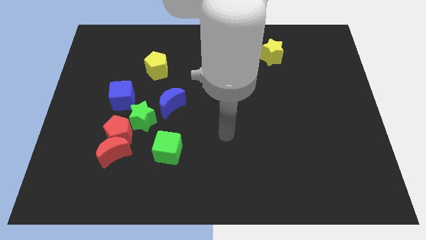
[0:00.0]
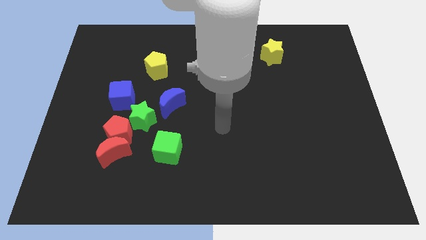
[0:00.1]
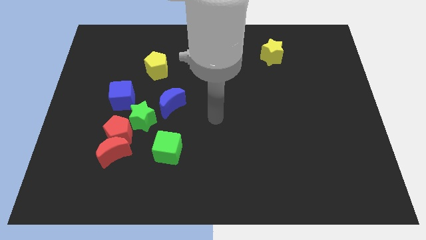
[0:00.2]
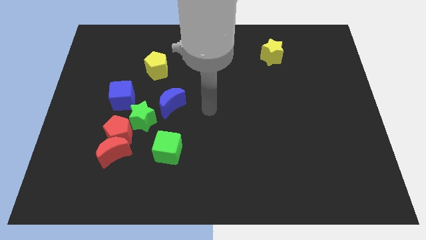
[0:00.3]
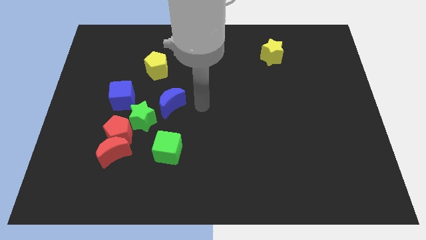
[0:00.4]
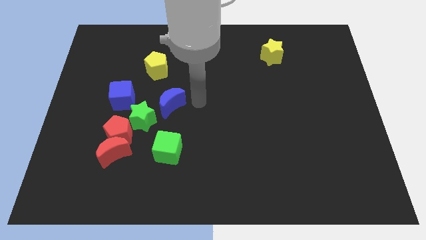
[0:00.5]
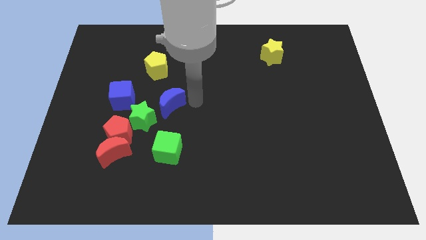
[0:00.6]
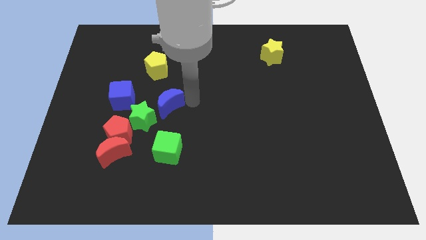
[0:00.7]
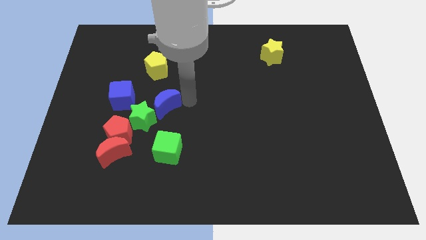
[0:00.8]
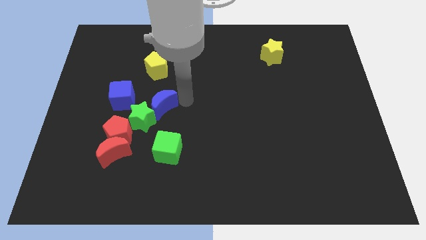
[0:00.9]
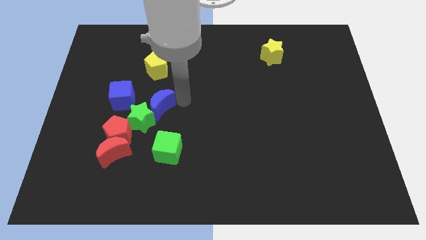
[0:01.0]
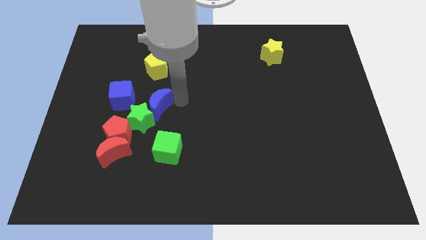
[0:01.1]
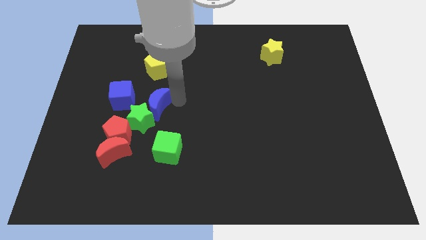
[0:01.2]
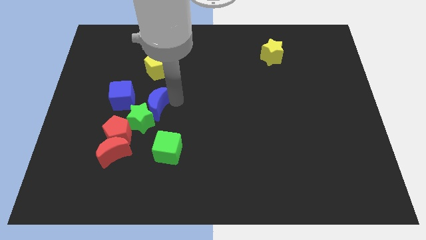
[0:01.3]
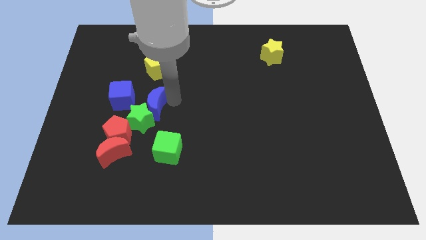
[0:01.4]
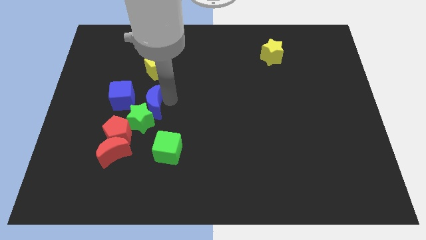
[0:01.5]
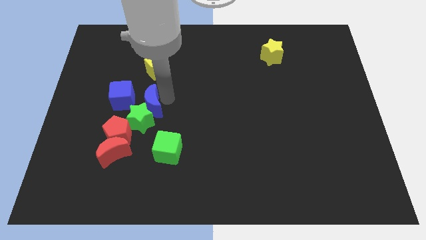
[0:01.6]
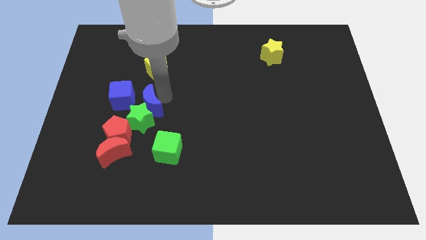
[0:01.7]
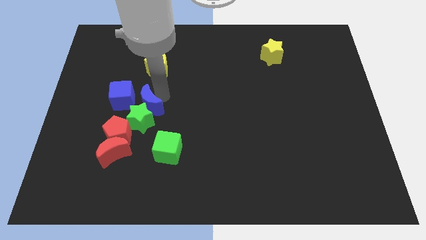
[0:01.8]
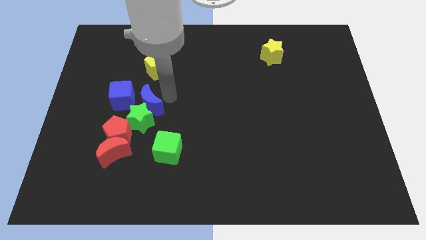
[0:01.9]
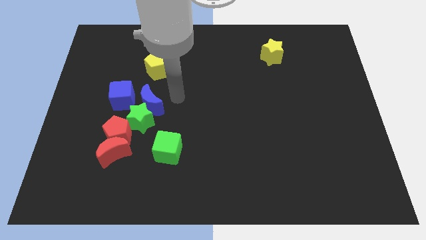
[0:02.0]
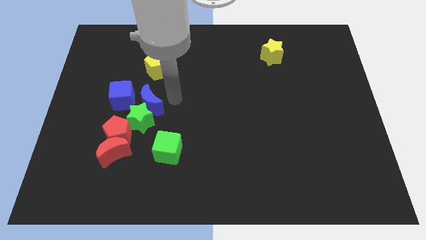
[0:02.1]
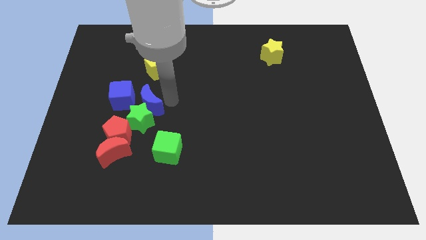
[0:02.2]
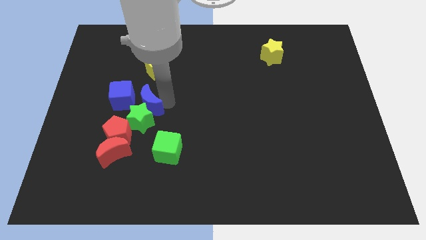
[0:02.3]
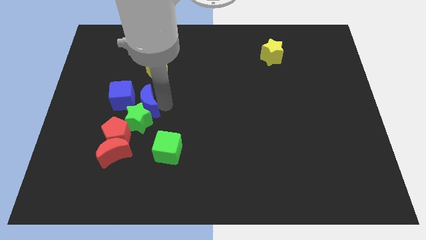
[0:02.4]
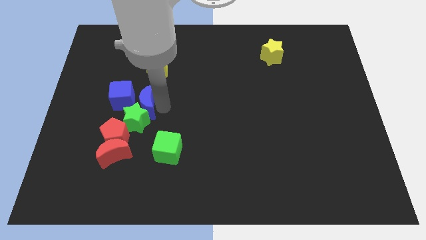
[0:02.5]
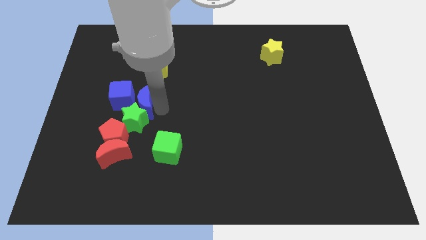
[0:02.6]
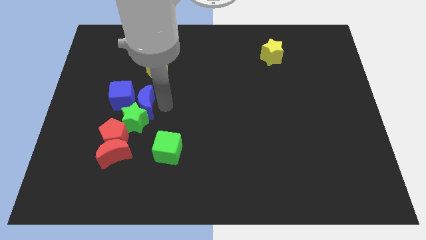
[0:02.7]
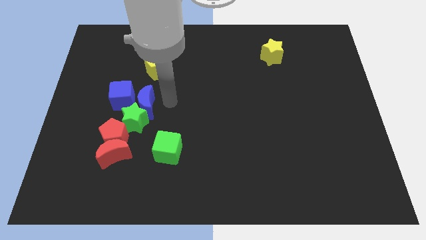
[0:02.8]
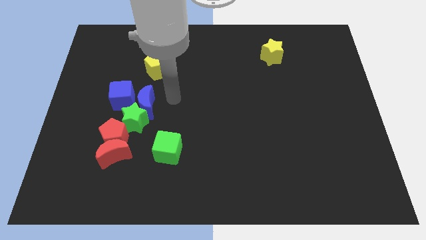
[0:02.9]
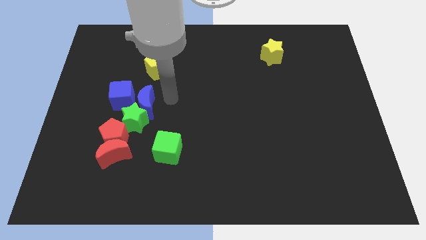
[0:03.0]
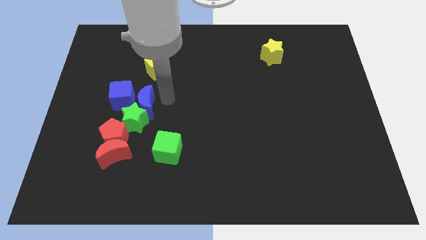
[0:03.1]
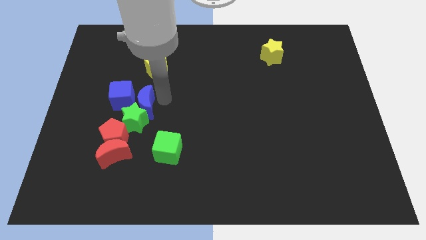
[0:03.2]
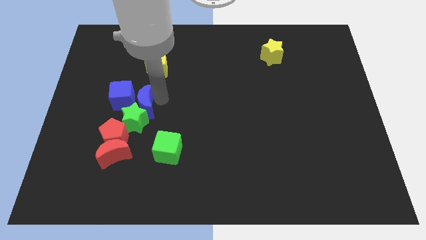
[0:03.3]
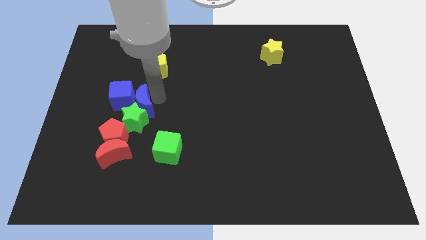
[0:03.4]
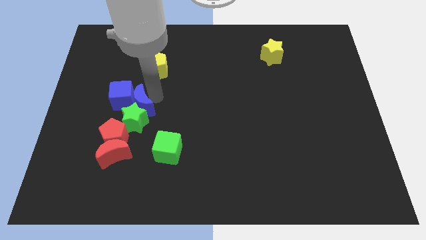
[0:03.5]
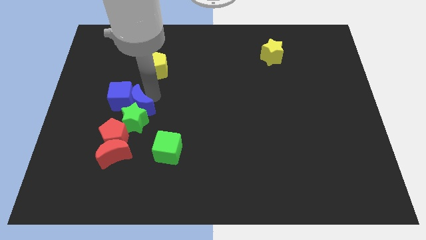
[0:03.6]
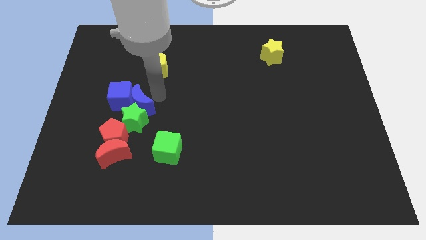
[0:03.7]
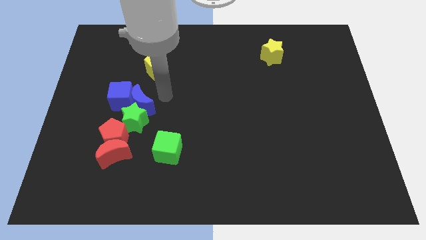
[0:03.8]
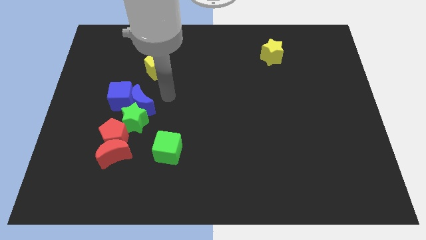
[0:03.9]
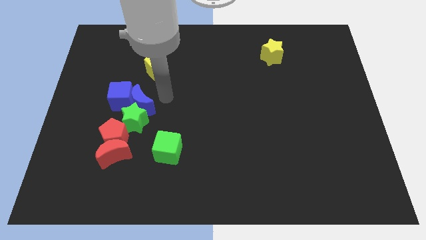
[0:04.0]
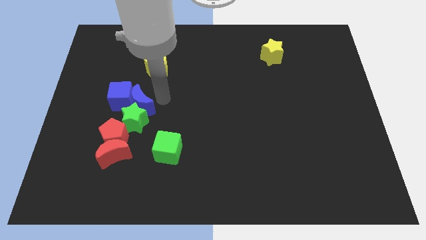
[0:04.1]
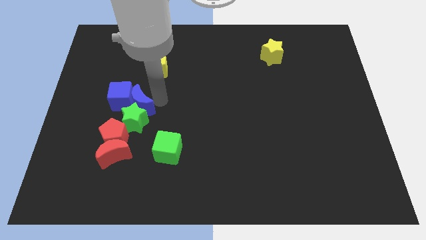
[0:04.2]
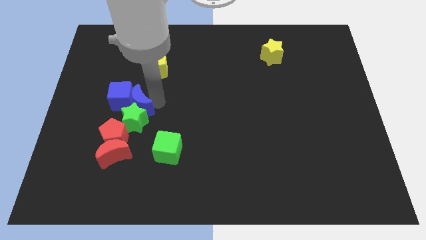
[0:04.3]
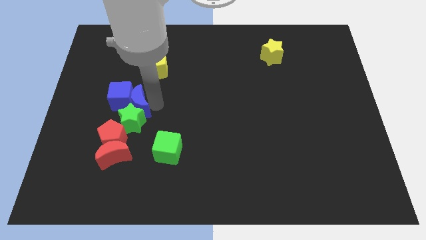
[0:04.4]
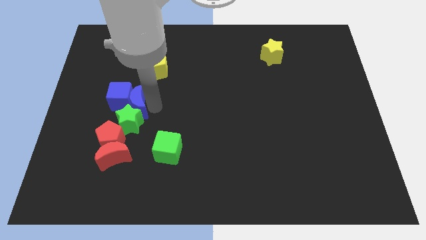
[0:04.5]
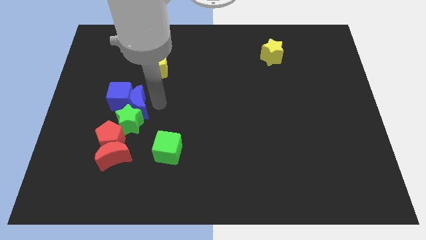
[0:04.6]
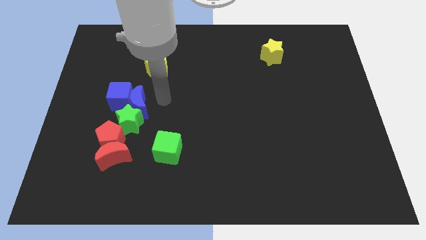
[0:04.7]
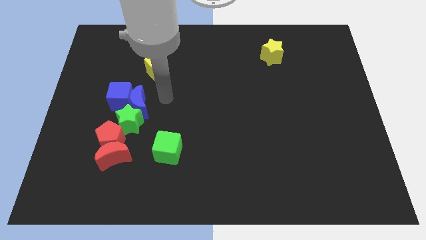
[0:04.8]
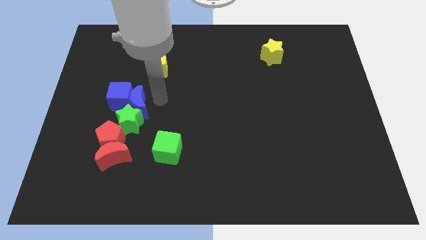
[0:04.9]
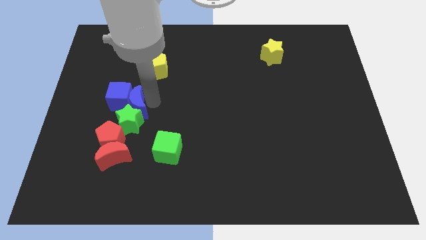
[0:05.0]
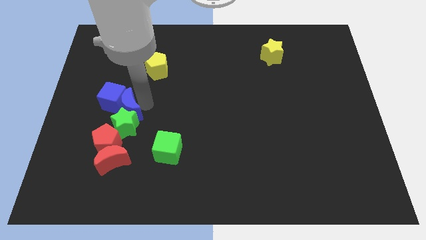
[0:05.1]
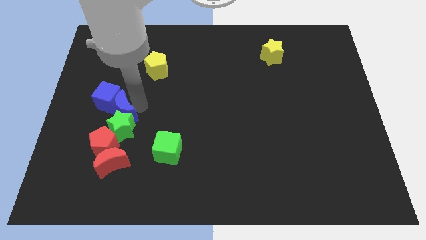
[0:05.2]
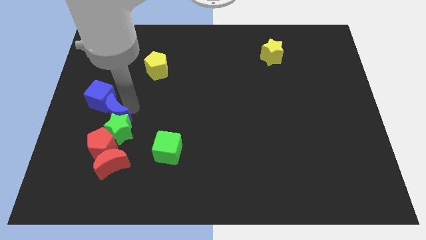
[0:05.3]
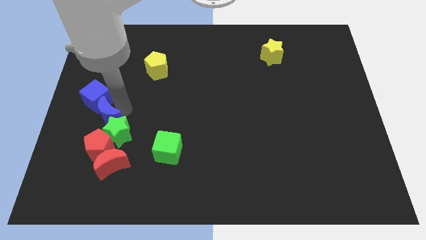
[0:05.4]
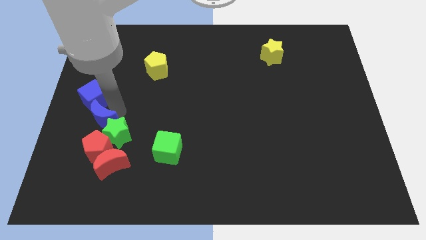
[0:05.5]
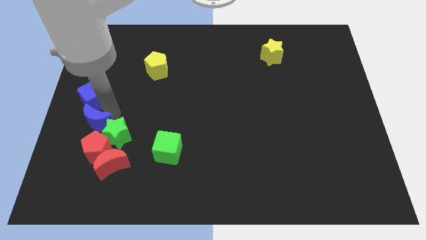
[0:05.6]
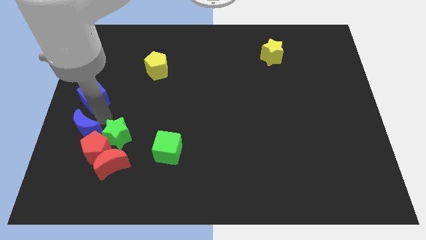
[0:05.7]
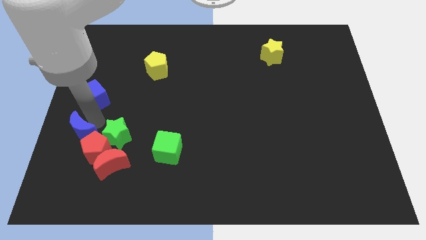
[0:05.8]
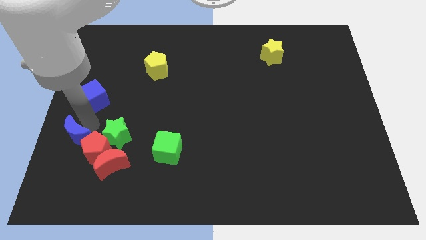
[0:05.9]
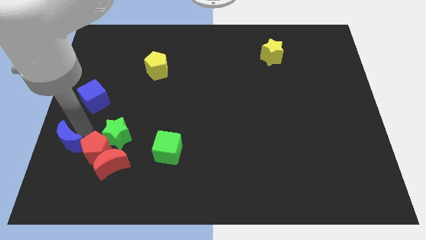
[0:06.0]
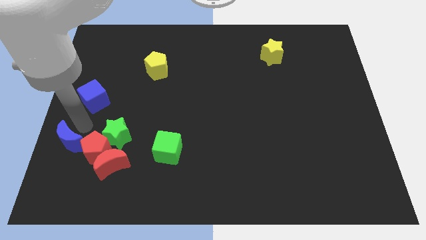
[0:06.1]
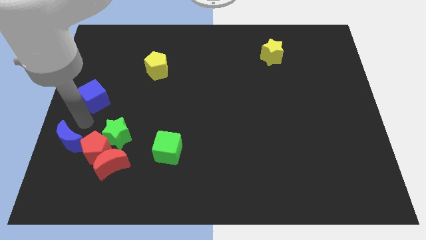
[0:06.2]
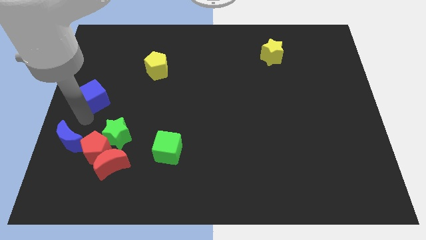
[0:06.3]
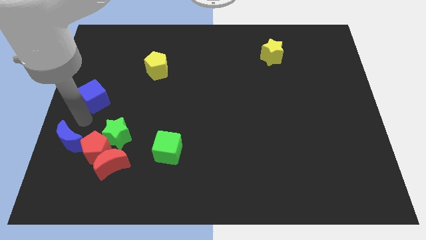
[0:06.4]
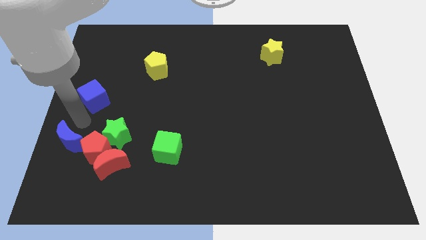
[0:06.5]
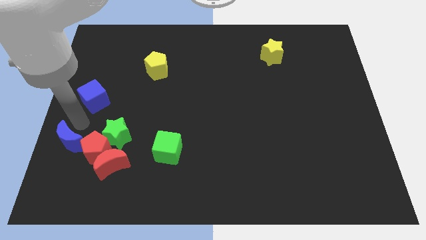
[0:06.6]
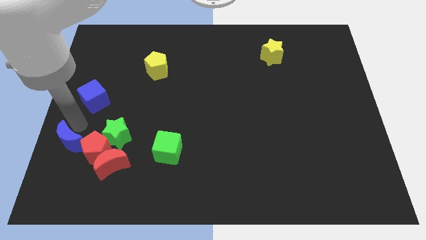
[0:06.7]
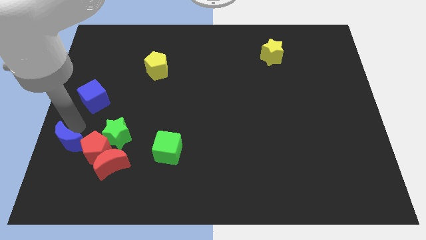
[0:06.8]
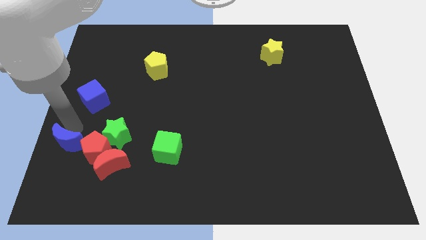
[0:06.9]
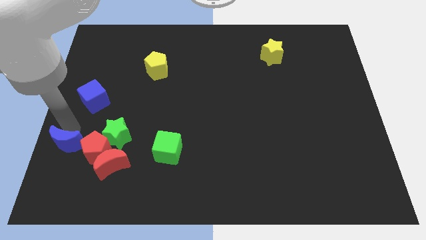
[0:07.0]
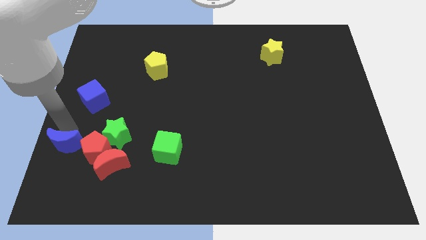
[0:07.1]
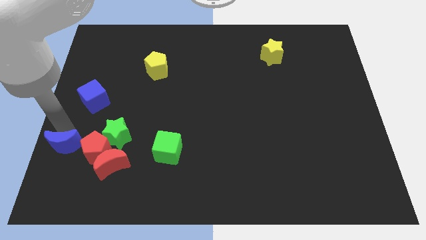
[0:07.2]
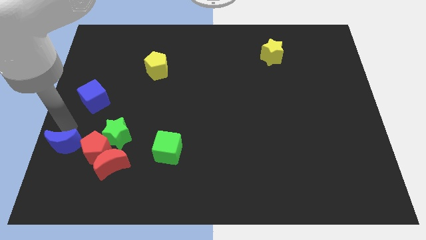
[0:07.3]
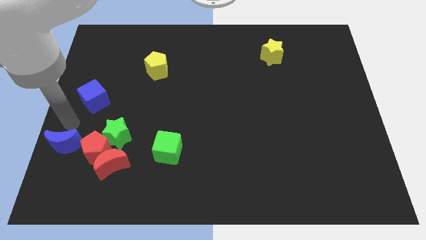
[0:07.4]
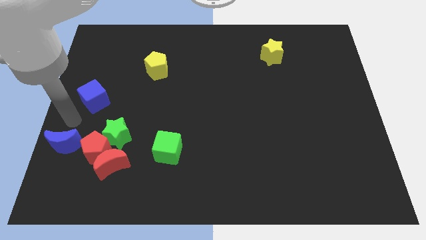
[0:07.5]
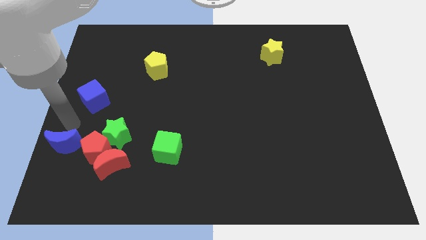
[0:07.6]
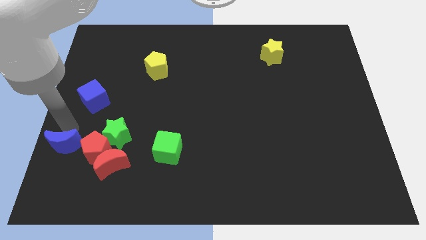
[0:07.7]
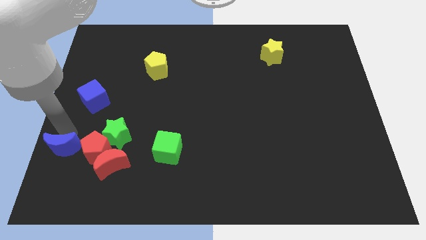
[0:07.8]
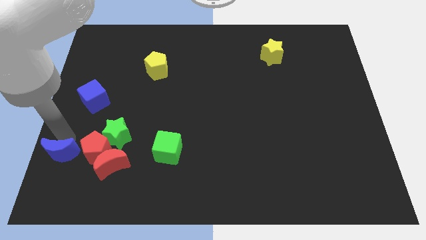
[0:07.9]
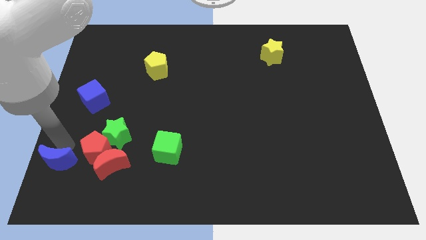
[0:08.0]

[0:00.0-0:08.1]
push the blue moon to the bottom left of the board
